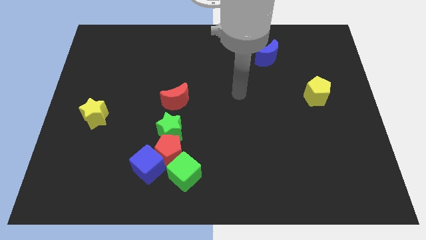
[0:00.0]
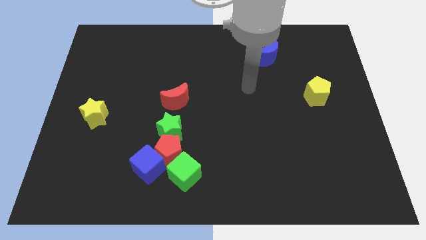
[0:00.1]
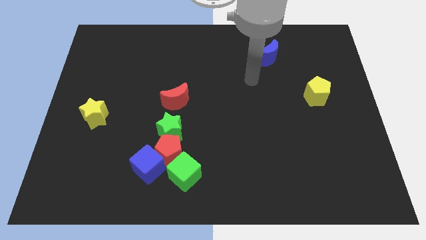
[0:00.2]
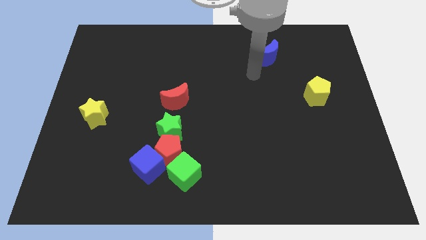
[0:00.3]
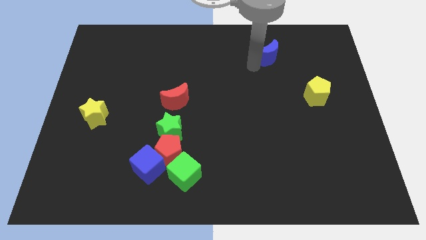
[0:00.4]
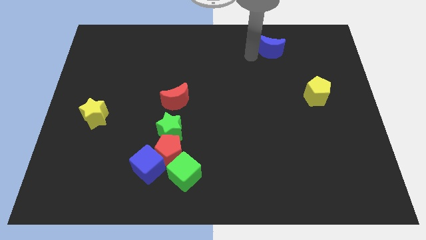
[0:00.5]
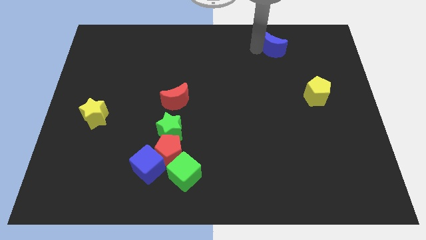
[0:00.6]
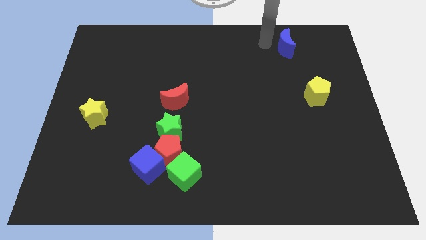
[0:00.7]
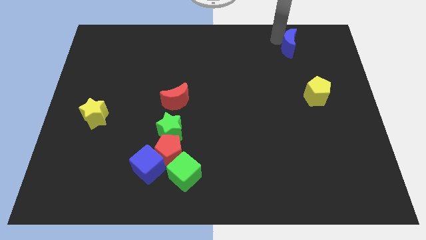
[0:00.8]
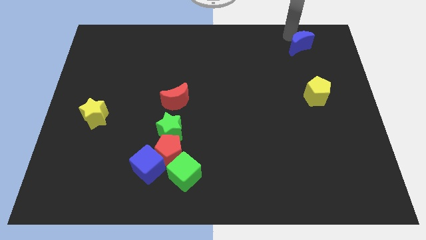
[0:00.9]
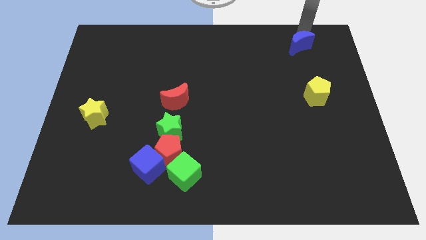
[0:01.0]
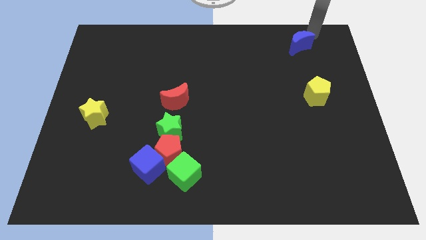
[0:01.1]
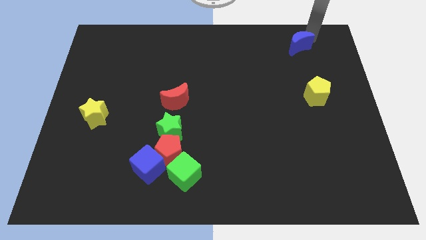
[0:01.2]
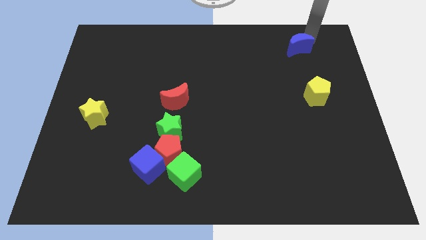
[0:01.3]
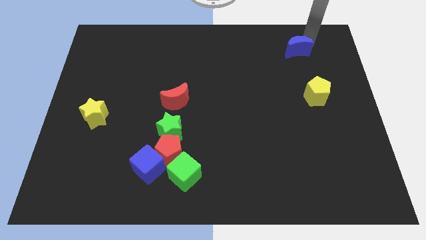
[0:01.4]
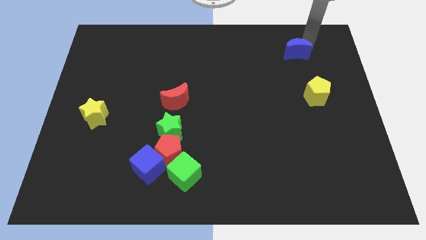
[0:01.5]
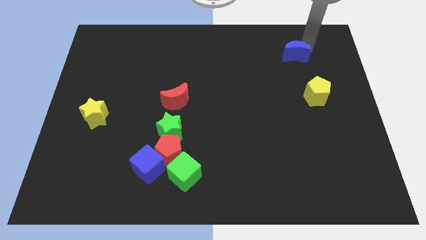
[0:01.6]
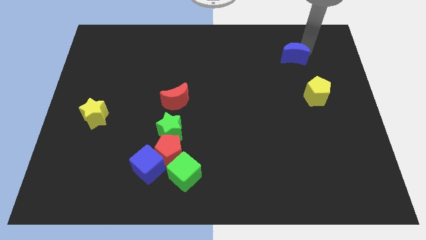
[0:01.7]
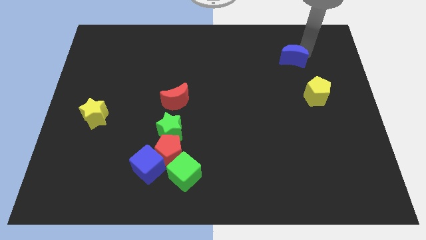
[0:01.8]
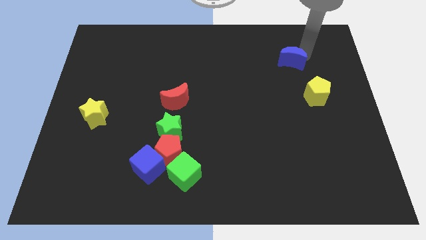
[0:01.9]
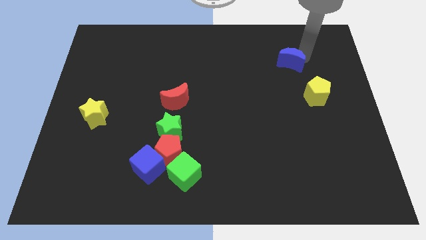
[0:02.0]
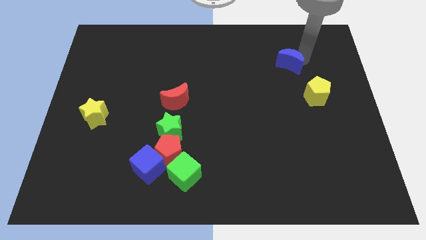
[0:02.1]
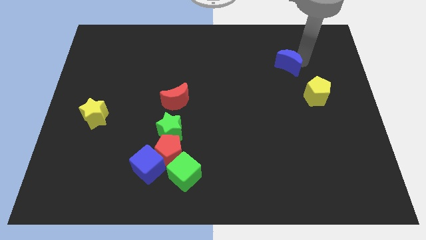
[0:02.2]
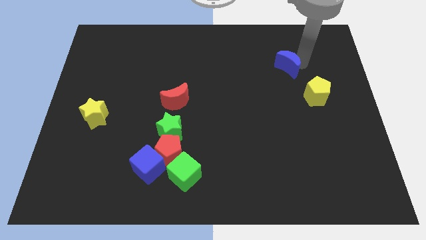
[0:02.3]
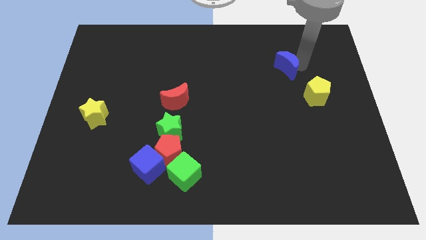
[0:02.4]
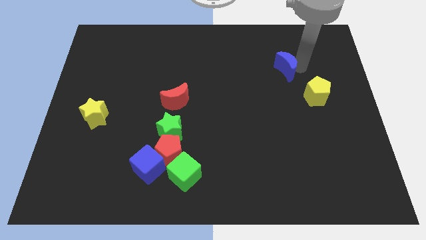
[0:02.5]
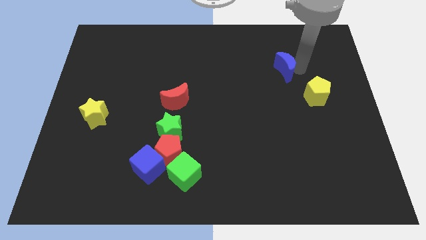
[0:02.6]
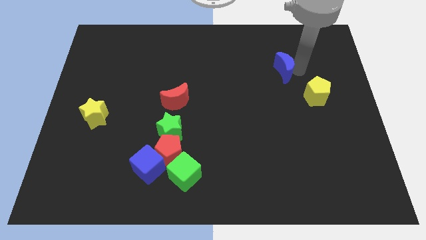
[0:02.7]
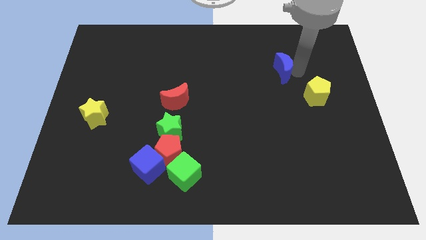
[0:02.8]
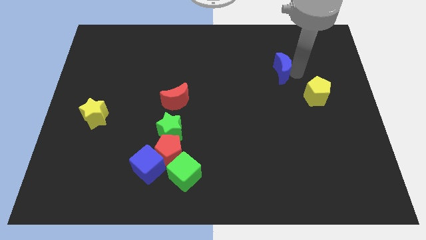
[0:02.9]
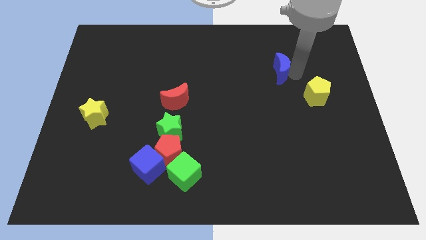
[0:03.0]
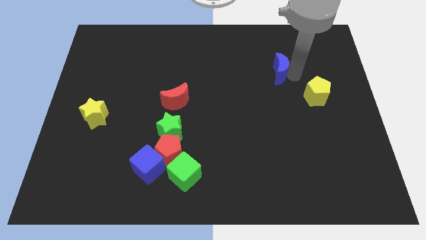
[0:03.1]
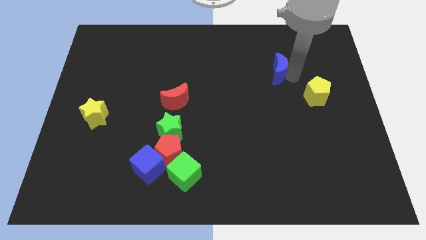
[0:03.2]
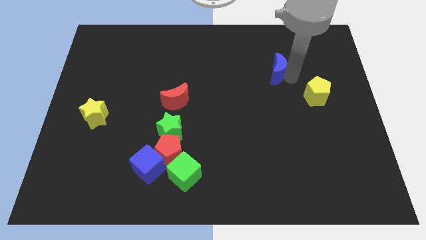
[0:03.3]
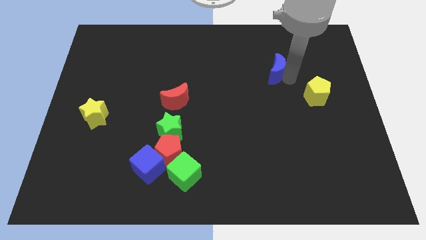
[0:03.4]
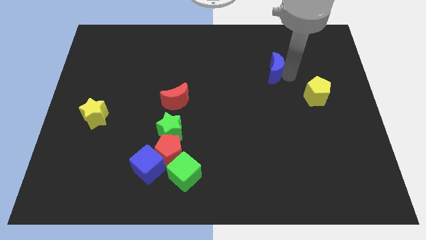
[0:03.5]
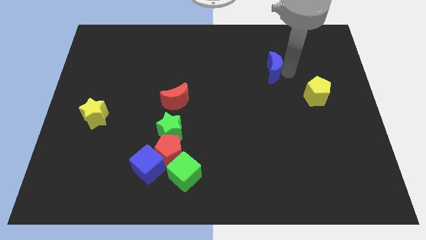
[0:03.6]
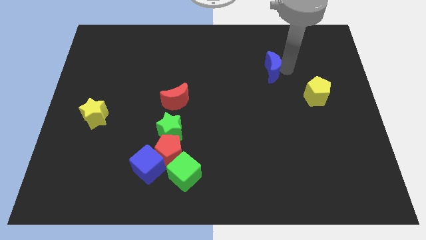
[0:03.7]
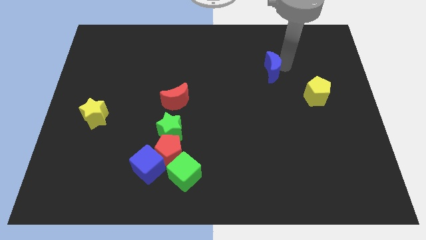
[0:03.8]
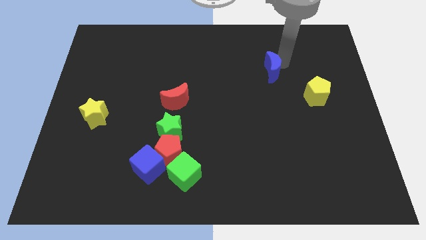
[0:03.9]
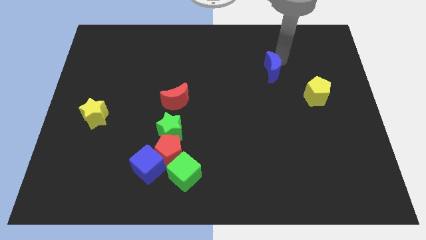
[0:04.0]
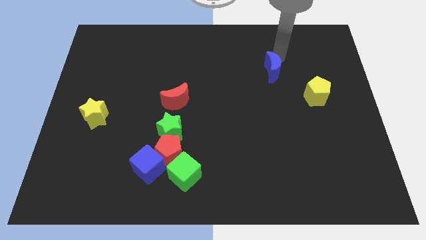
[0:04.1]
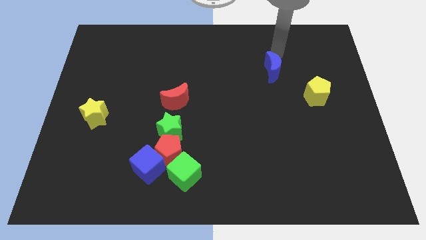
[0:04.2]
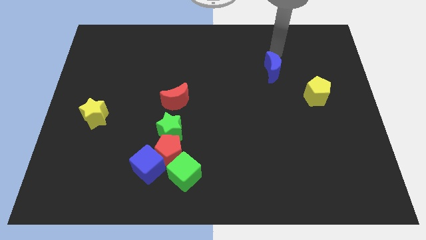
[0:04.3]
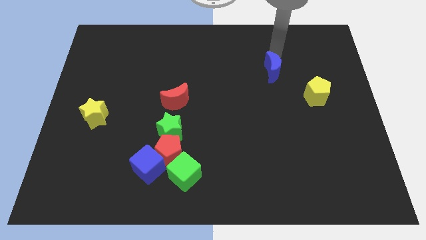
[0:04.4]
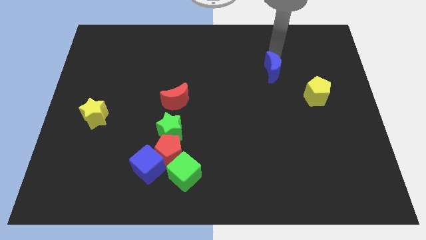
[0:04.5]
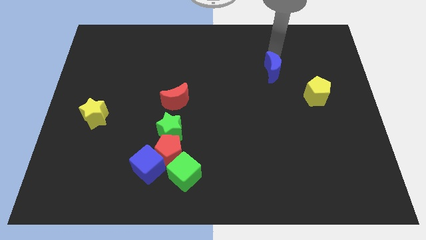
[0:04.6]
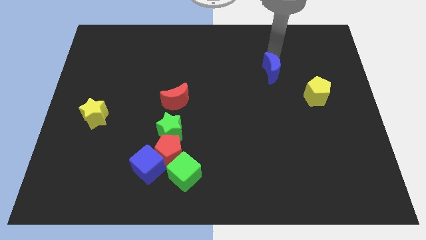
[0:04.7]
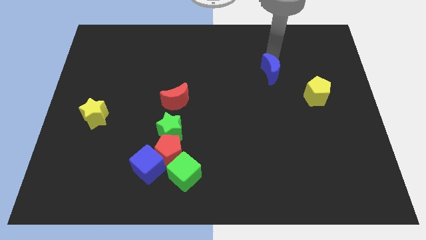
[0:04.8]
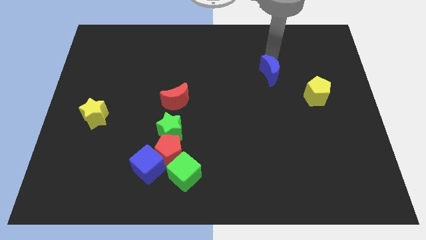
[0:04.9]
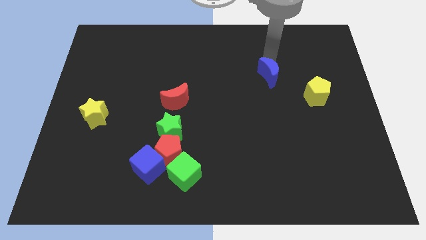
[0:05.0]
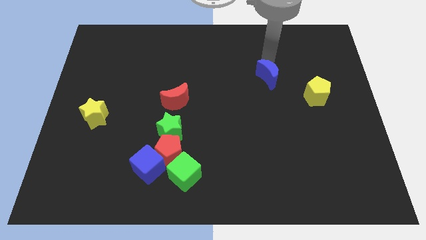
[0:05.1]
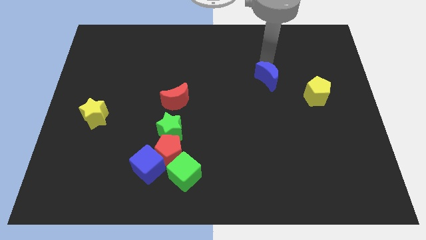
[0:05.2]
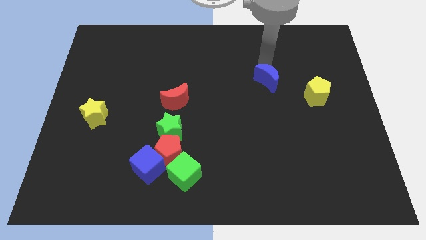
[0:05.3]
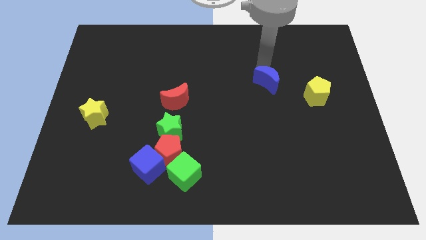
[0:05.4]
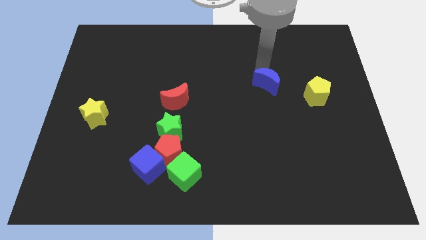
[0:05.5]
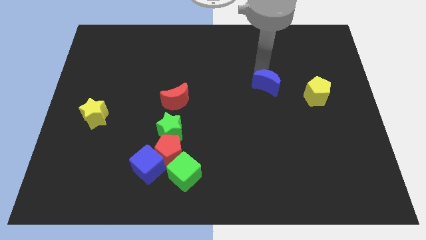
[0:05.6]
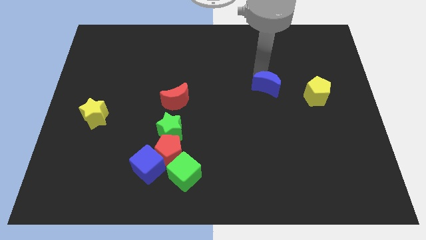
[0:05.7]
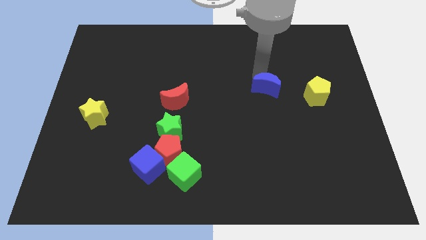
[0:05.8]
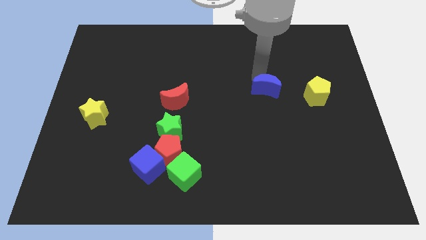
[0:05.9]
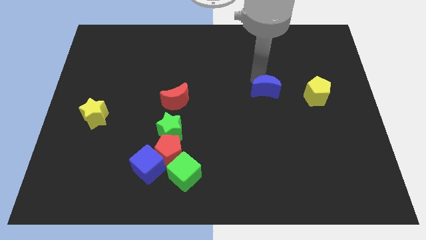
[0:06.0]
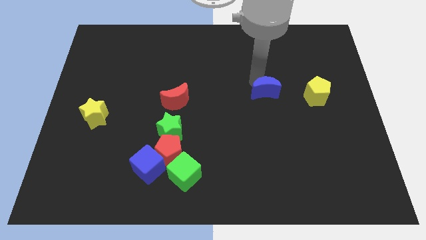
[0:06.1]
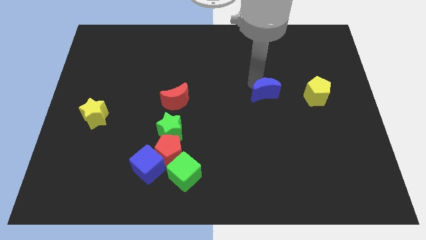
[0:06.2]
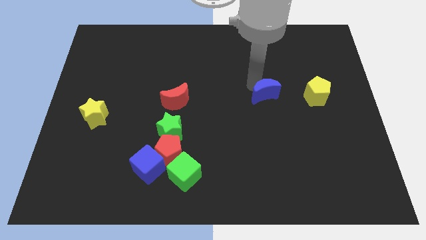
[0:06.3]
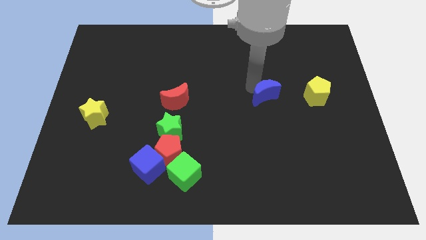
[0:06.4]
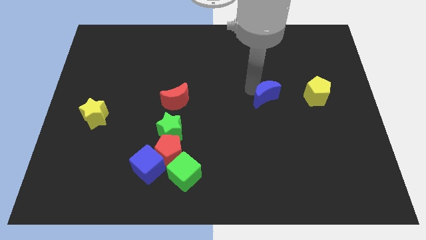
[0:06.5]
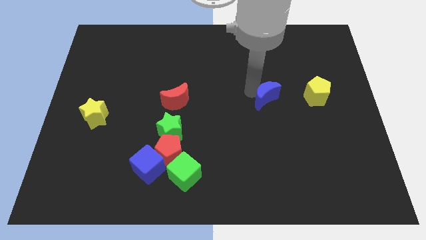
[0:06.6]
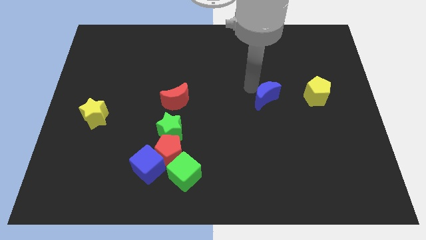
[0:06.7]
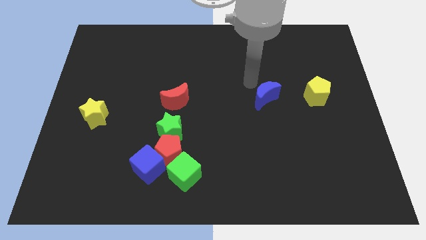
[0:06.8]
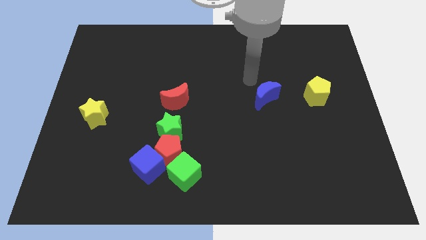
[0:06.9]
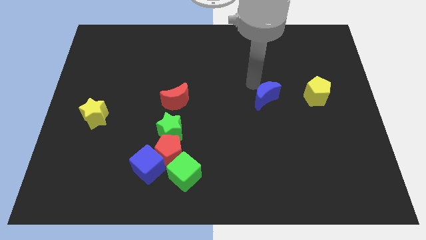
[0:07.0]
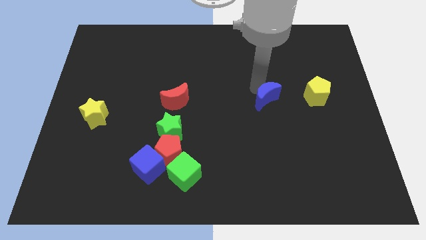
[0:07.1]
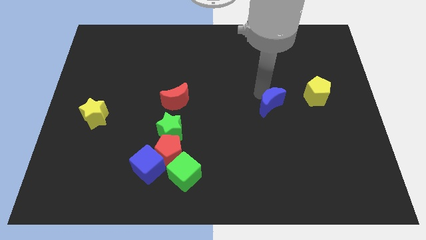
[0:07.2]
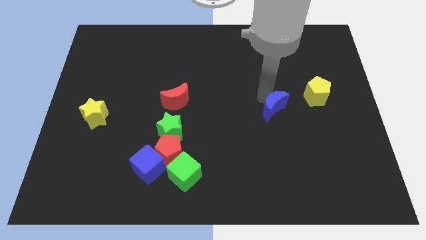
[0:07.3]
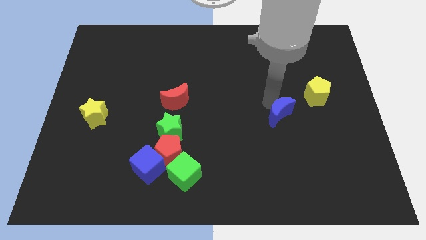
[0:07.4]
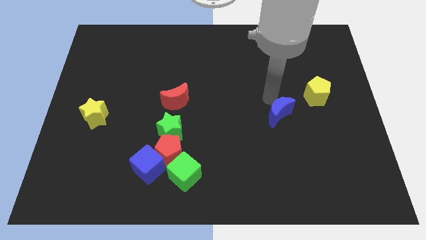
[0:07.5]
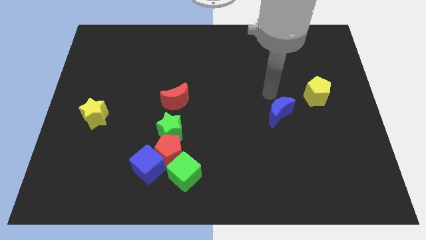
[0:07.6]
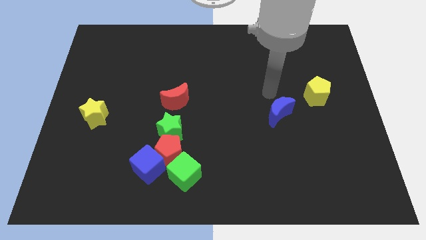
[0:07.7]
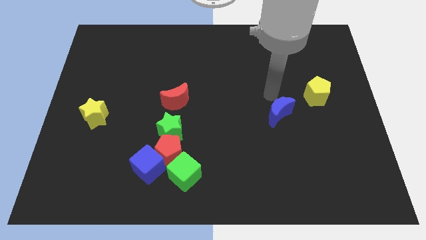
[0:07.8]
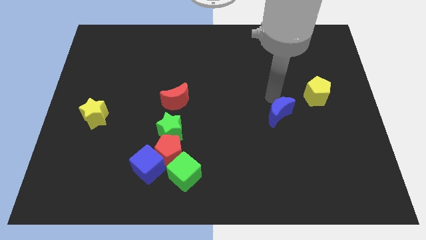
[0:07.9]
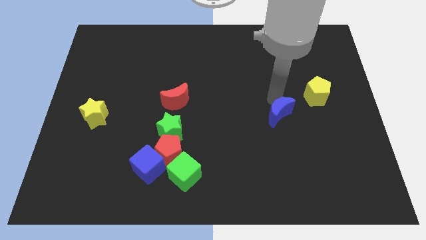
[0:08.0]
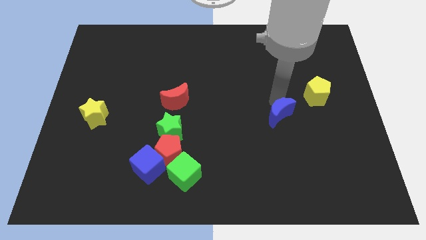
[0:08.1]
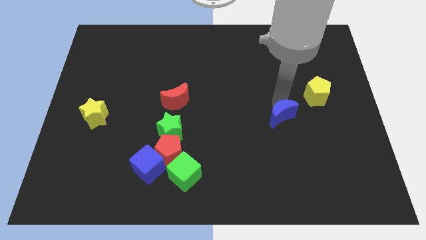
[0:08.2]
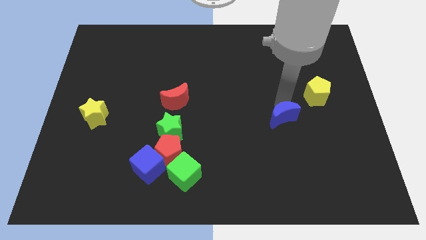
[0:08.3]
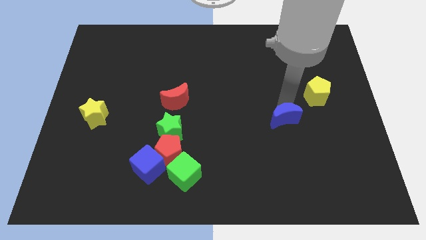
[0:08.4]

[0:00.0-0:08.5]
slide the blue moon downwards
